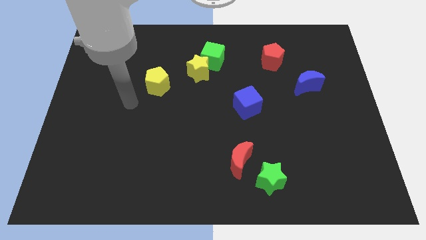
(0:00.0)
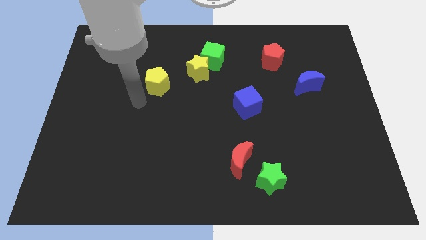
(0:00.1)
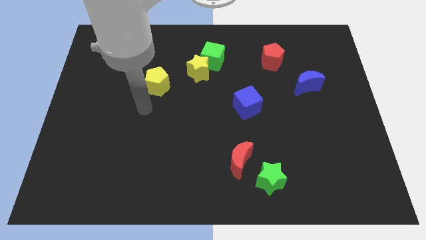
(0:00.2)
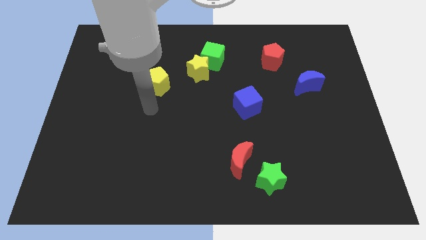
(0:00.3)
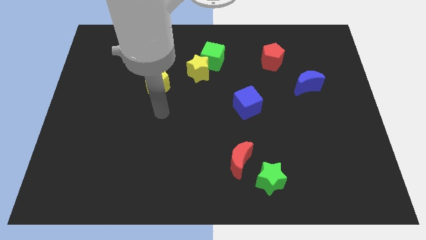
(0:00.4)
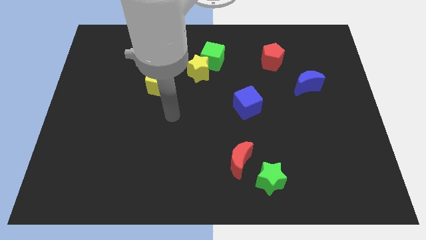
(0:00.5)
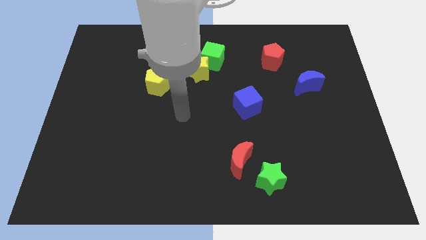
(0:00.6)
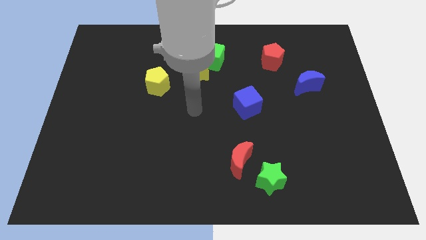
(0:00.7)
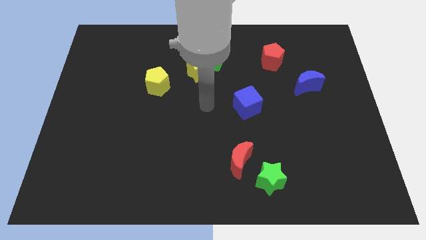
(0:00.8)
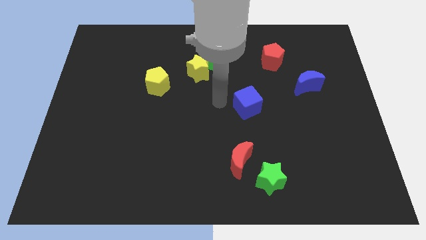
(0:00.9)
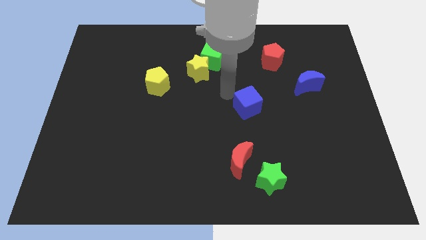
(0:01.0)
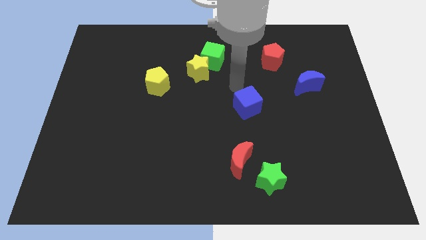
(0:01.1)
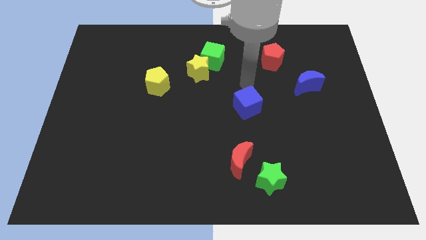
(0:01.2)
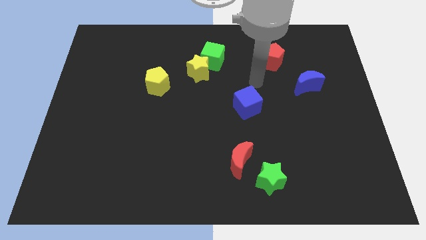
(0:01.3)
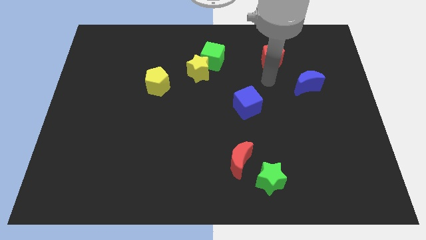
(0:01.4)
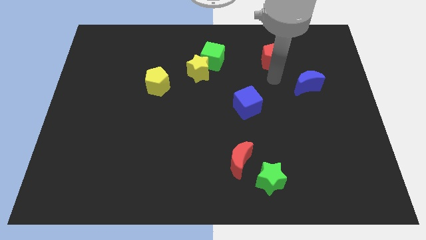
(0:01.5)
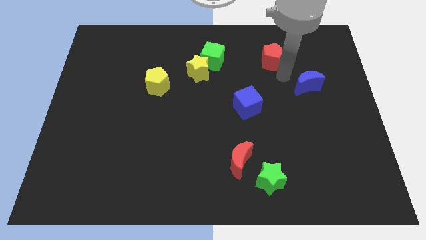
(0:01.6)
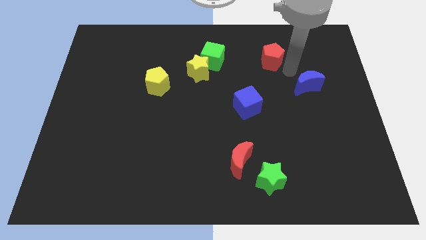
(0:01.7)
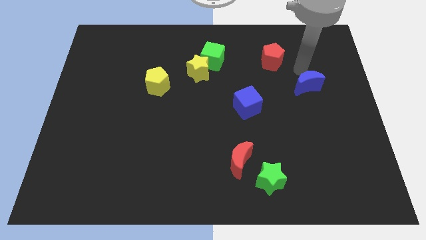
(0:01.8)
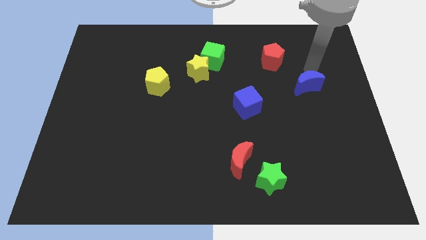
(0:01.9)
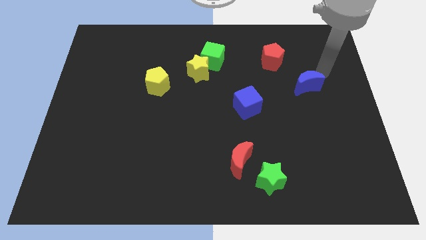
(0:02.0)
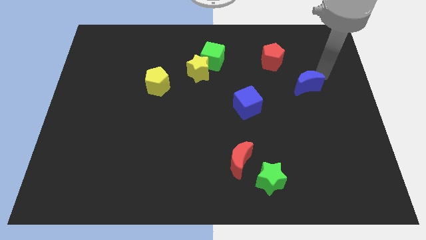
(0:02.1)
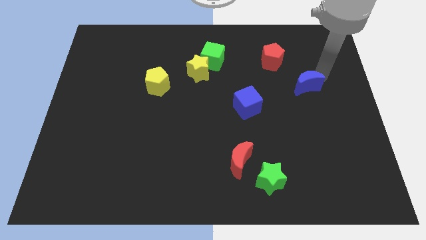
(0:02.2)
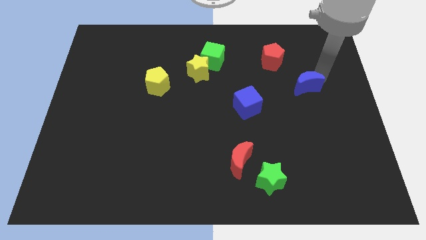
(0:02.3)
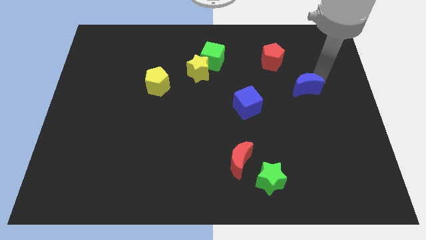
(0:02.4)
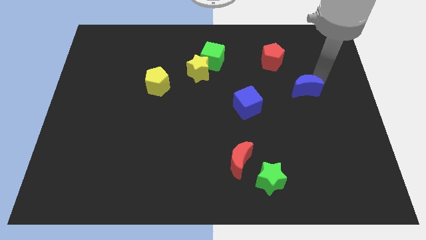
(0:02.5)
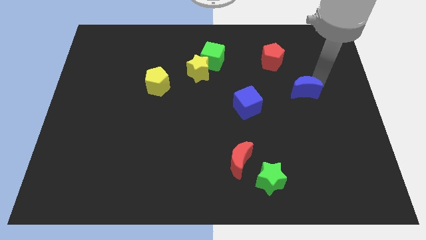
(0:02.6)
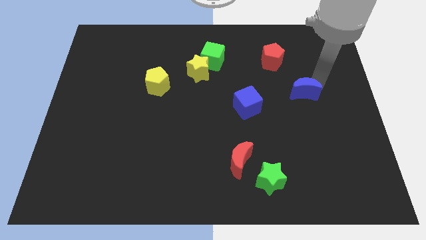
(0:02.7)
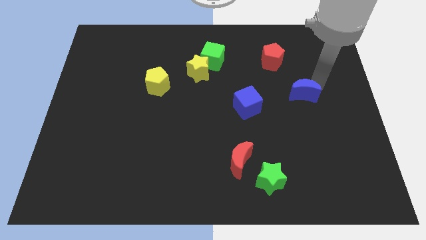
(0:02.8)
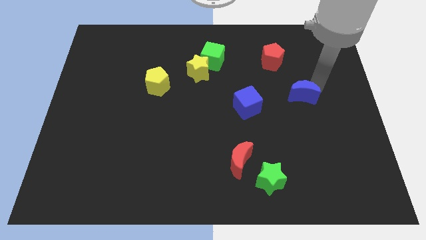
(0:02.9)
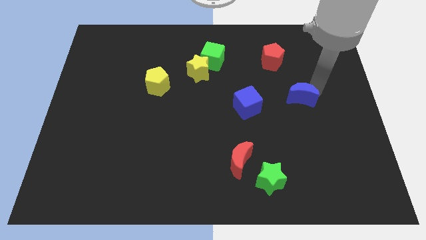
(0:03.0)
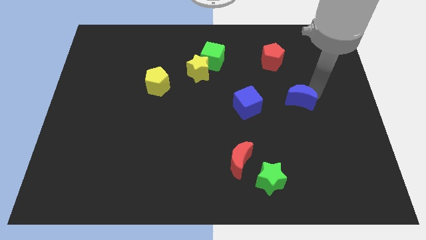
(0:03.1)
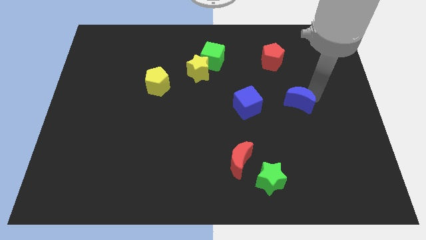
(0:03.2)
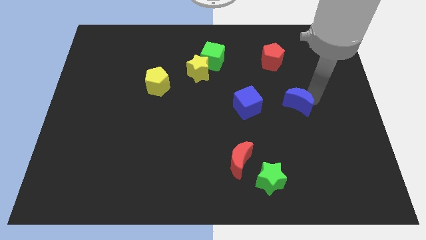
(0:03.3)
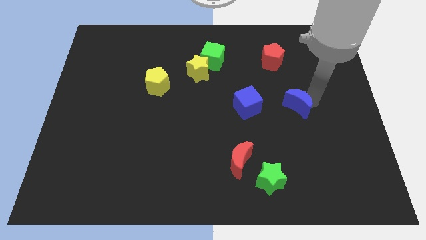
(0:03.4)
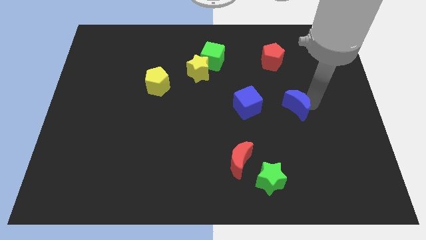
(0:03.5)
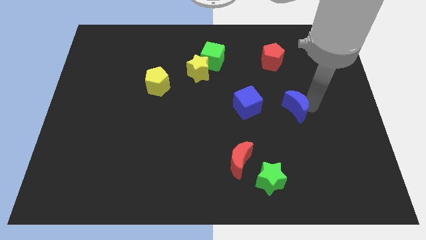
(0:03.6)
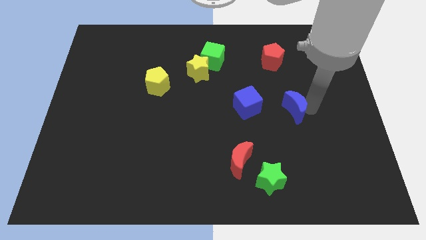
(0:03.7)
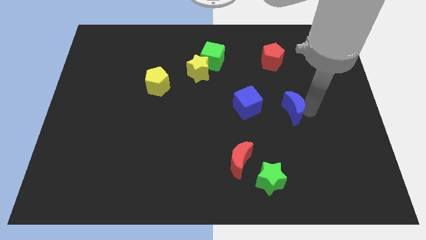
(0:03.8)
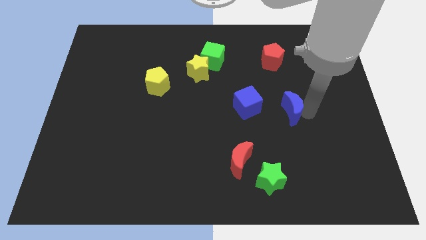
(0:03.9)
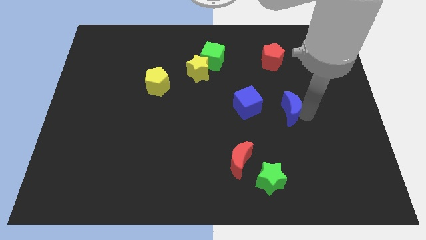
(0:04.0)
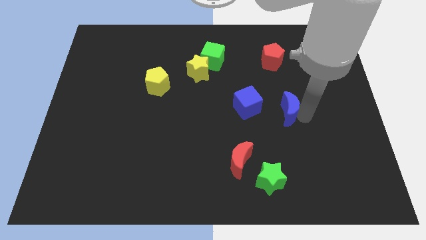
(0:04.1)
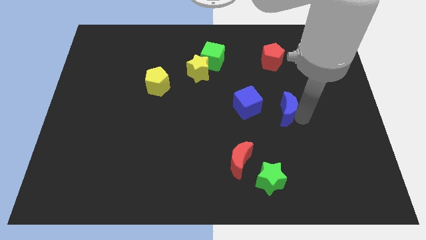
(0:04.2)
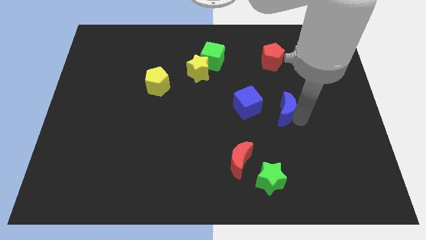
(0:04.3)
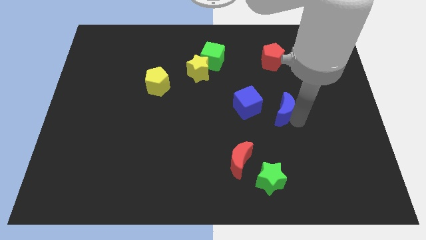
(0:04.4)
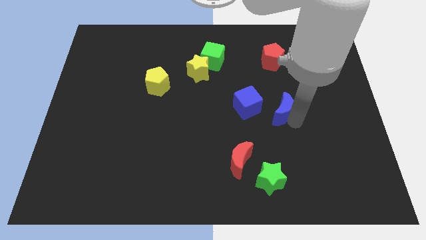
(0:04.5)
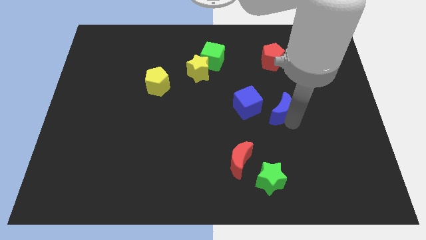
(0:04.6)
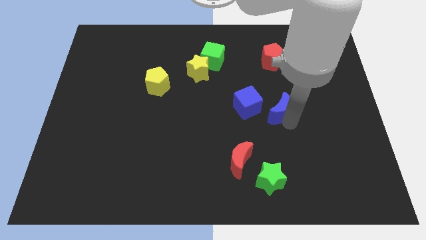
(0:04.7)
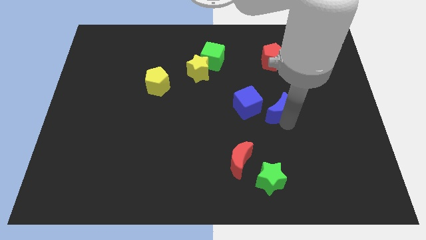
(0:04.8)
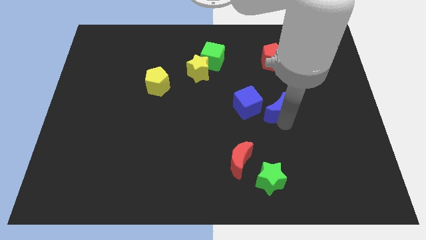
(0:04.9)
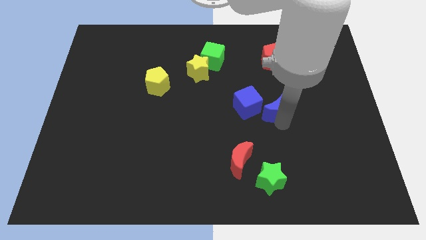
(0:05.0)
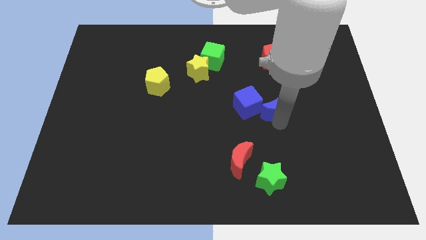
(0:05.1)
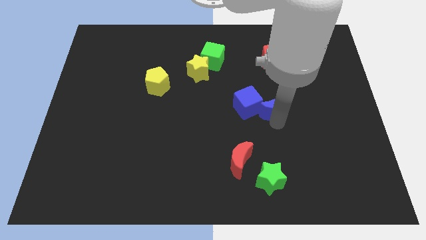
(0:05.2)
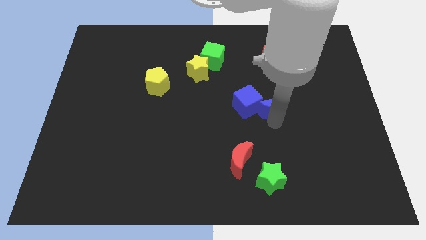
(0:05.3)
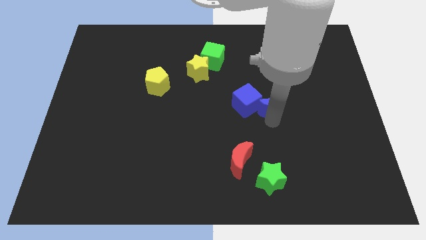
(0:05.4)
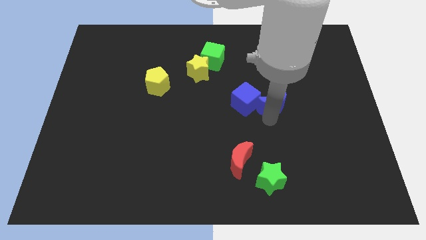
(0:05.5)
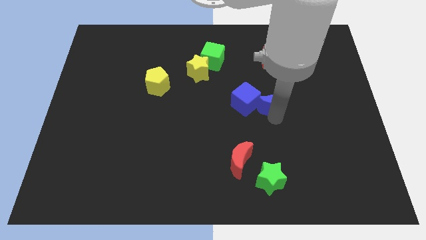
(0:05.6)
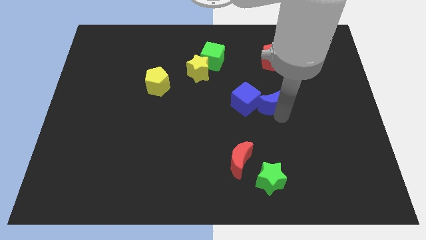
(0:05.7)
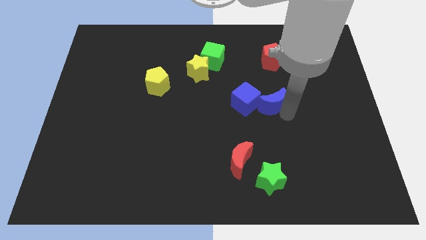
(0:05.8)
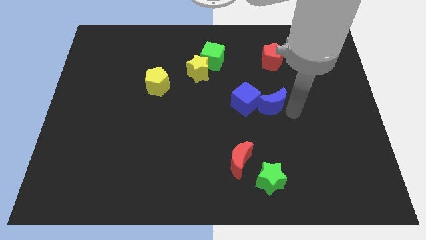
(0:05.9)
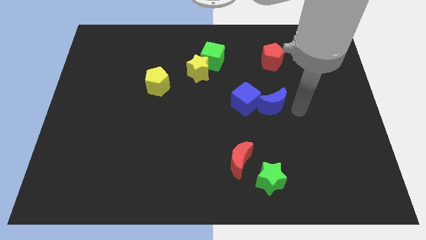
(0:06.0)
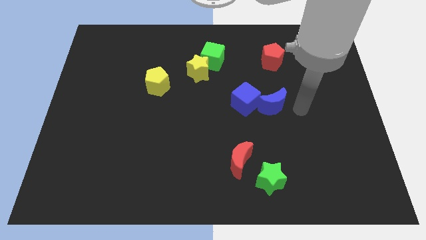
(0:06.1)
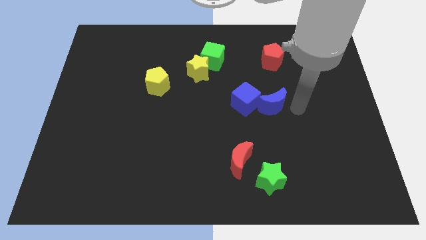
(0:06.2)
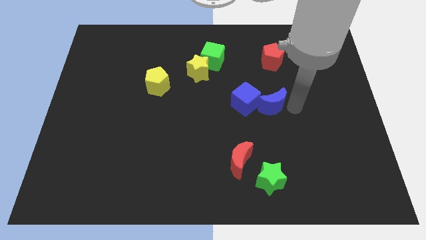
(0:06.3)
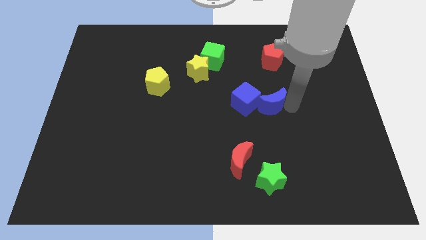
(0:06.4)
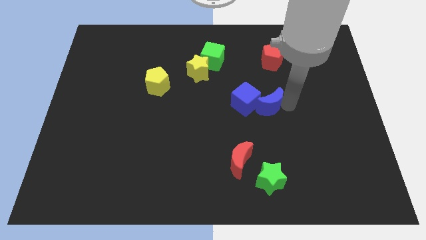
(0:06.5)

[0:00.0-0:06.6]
slide the blue moon next to the blue cube

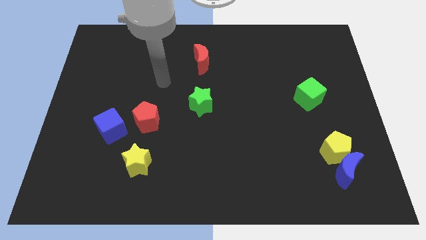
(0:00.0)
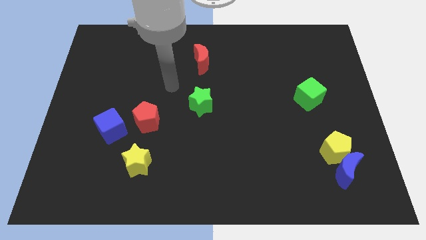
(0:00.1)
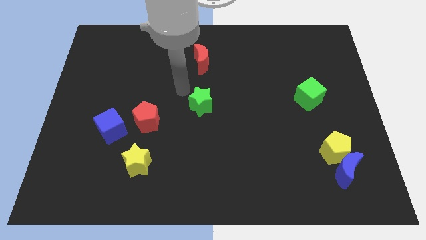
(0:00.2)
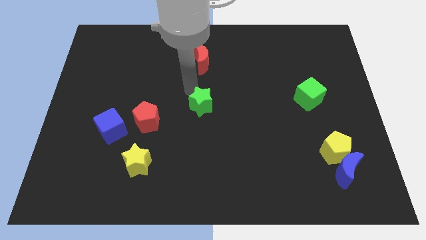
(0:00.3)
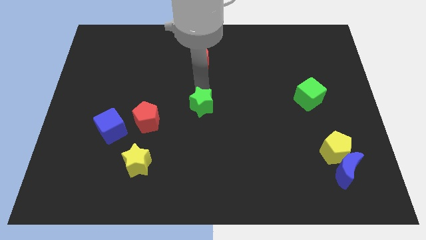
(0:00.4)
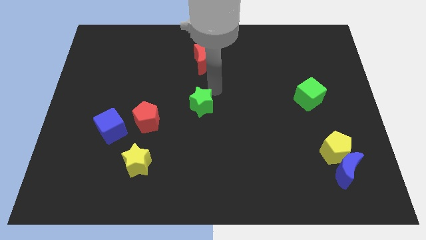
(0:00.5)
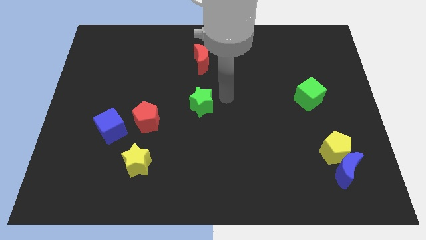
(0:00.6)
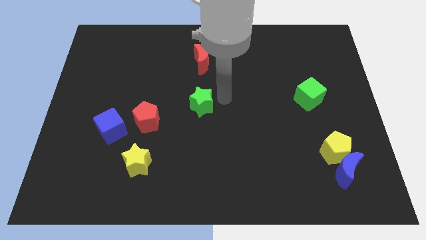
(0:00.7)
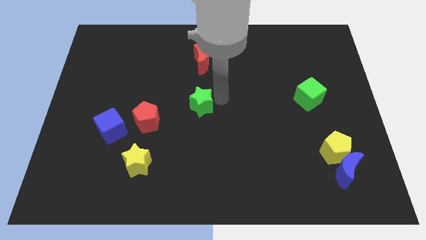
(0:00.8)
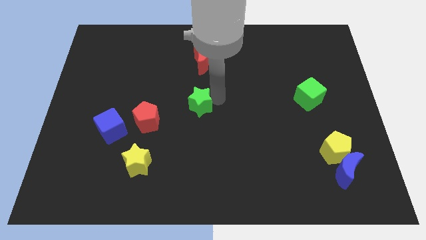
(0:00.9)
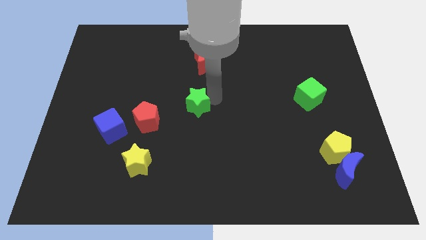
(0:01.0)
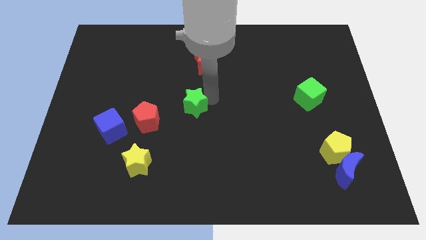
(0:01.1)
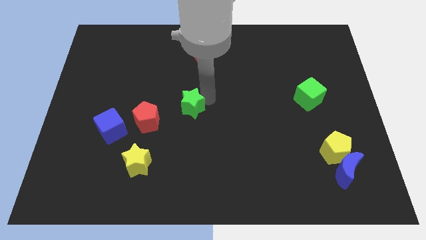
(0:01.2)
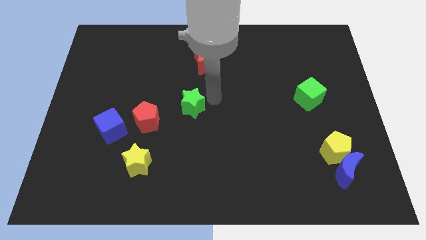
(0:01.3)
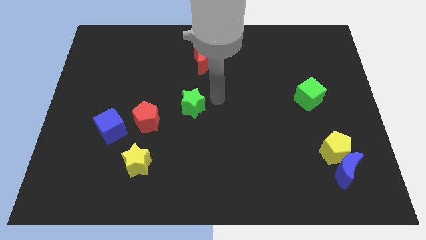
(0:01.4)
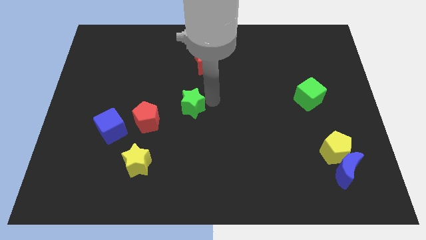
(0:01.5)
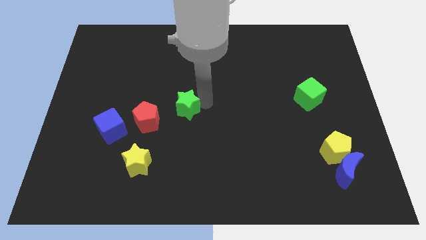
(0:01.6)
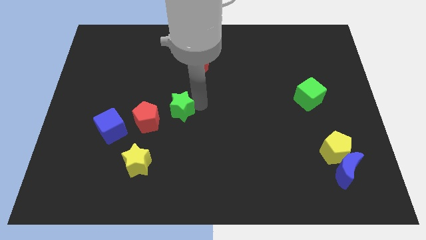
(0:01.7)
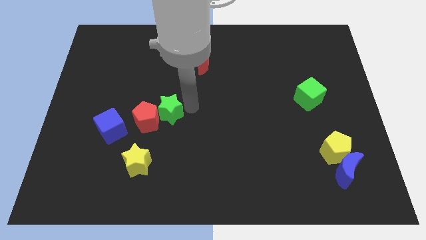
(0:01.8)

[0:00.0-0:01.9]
put the green star close to the red pentagon
